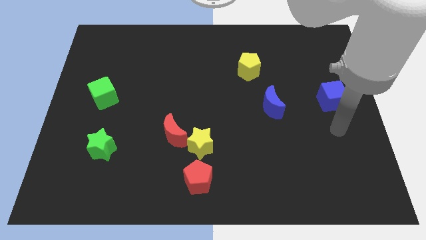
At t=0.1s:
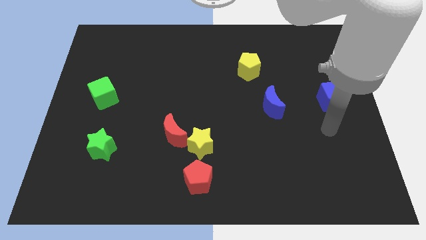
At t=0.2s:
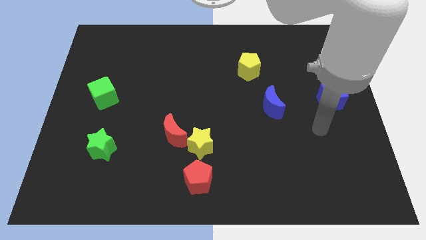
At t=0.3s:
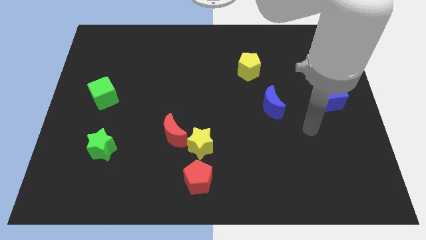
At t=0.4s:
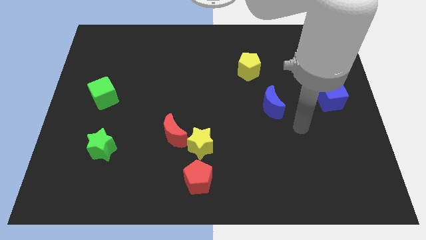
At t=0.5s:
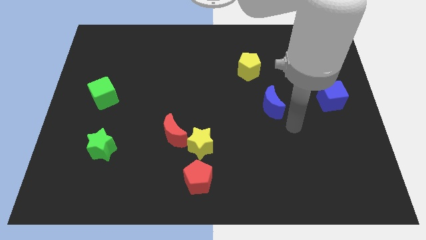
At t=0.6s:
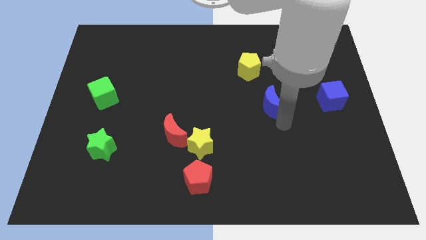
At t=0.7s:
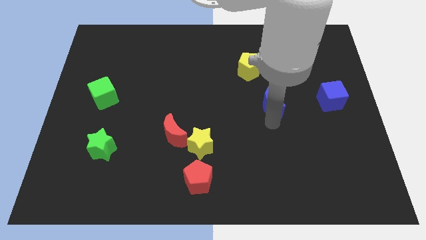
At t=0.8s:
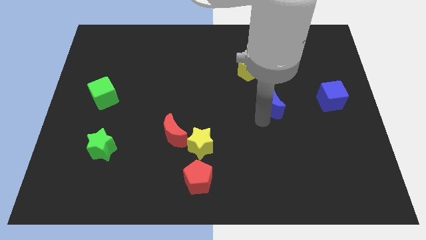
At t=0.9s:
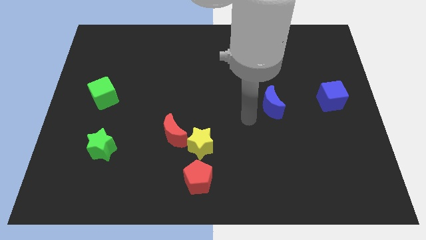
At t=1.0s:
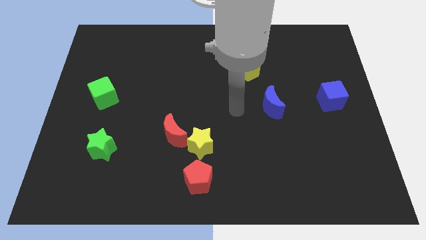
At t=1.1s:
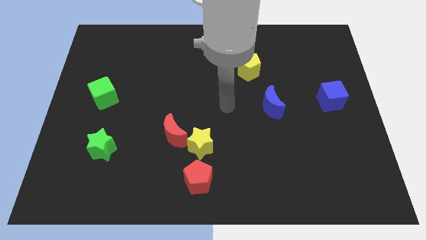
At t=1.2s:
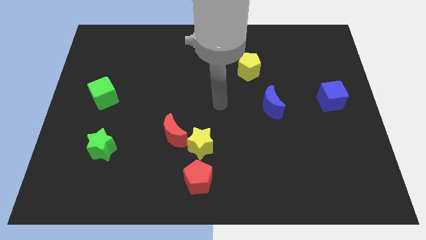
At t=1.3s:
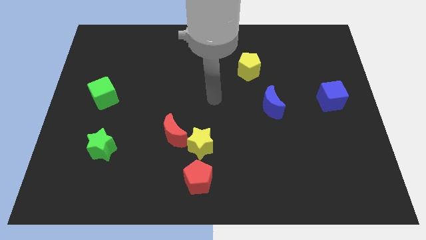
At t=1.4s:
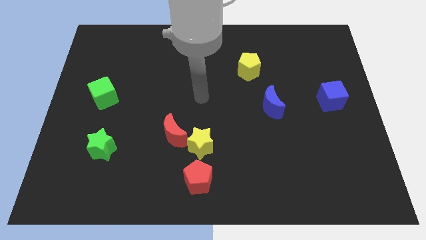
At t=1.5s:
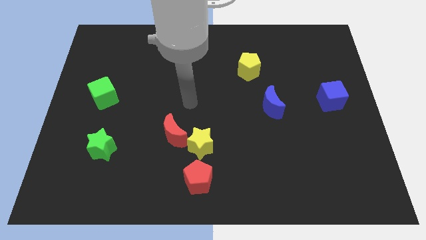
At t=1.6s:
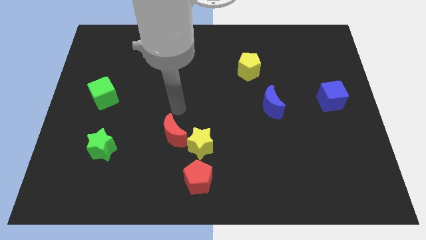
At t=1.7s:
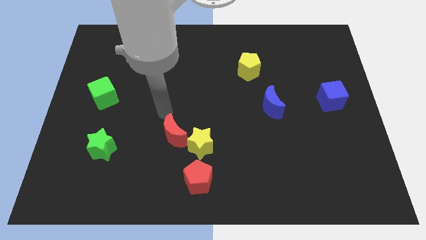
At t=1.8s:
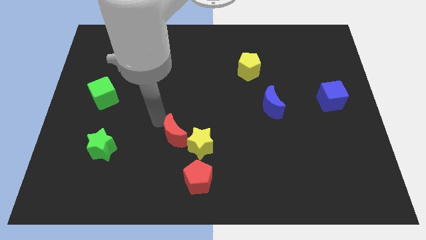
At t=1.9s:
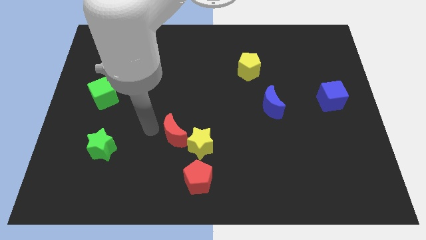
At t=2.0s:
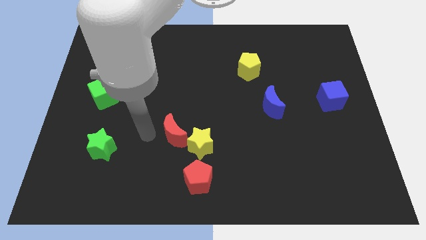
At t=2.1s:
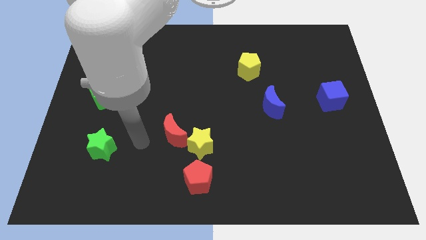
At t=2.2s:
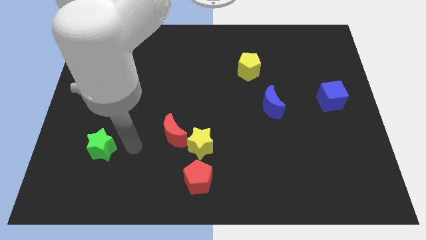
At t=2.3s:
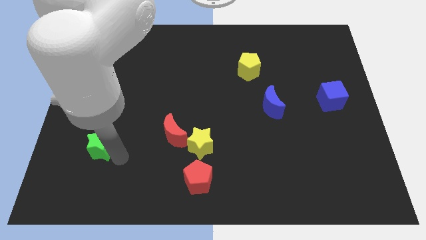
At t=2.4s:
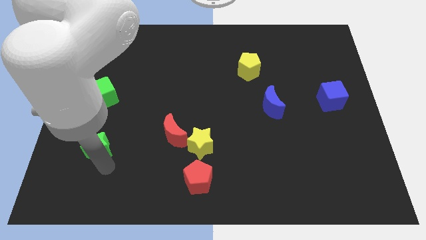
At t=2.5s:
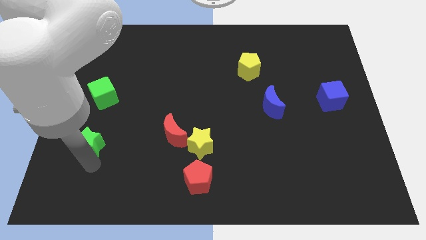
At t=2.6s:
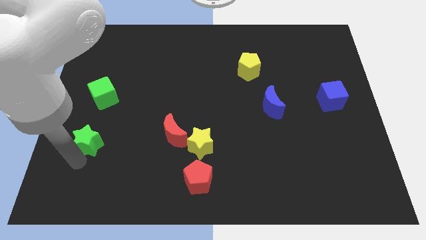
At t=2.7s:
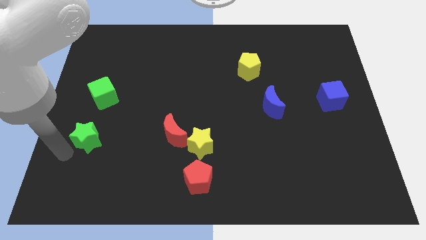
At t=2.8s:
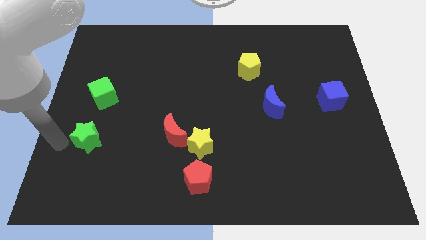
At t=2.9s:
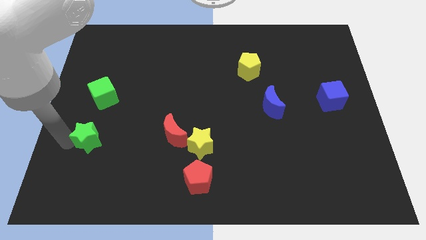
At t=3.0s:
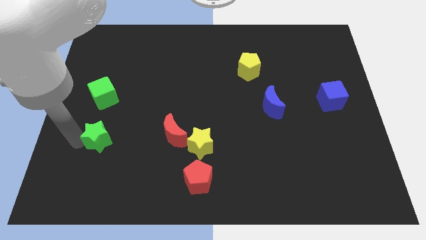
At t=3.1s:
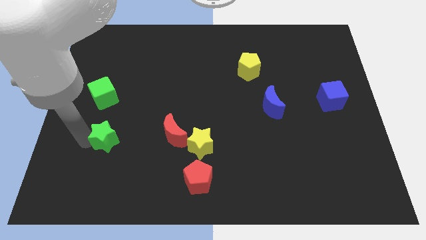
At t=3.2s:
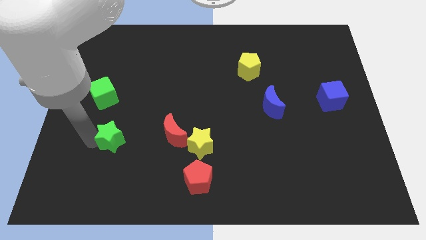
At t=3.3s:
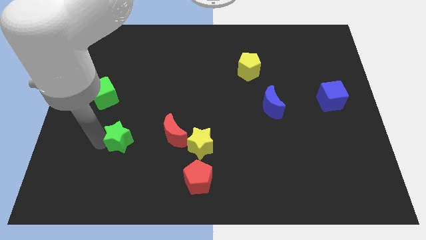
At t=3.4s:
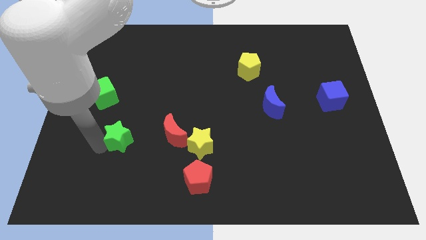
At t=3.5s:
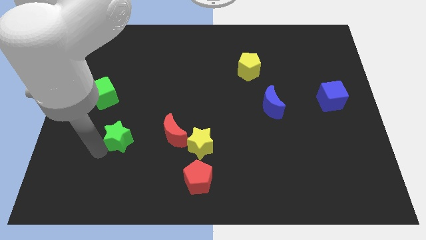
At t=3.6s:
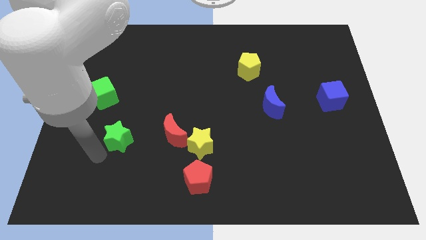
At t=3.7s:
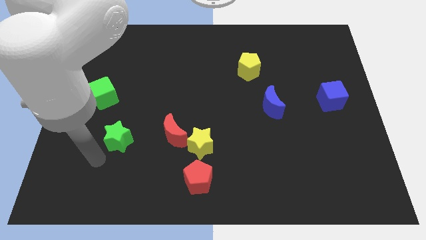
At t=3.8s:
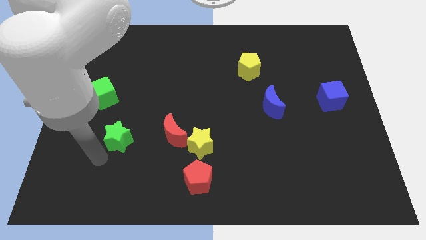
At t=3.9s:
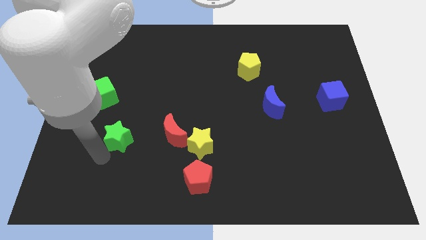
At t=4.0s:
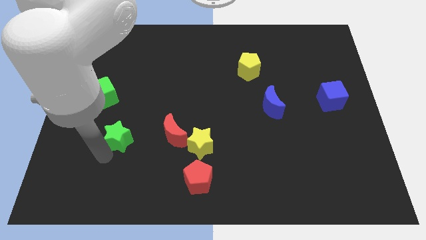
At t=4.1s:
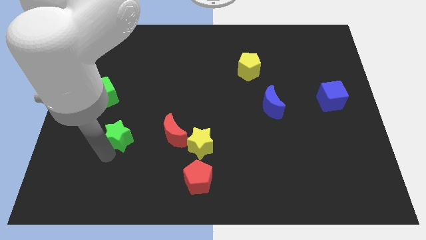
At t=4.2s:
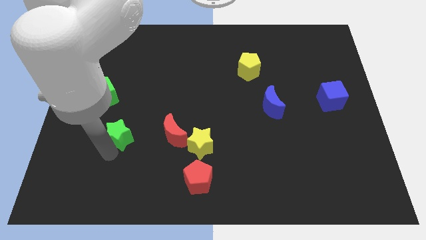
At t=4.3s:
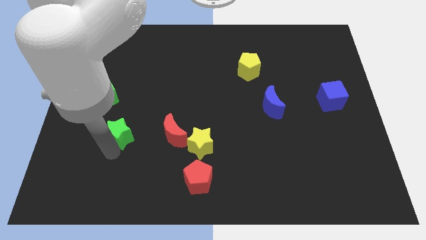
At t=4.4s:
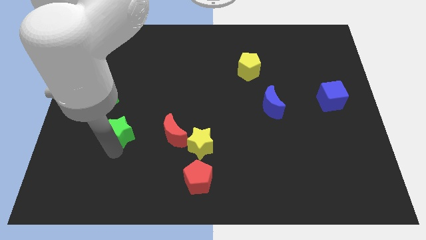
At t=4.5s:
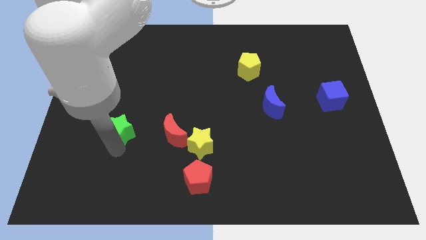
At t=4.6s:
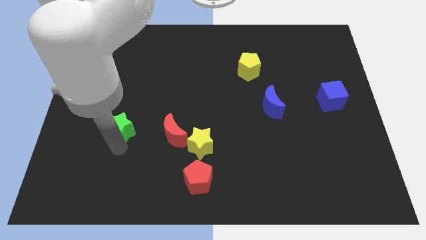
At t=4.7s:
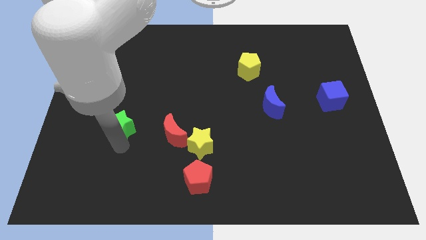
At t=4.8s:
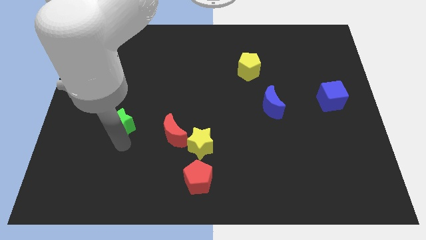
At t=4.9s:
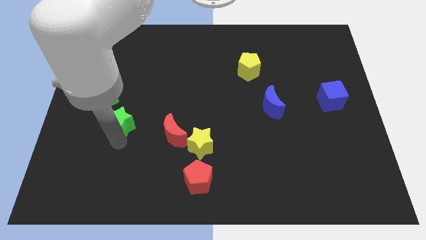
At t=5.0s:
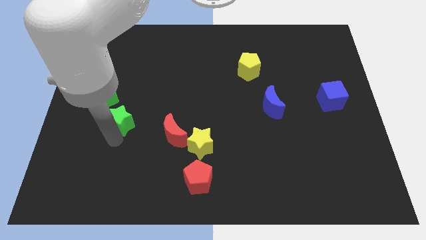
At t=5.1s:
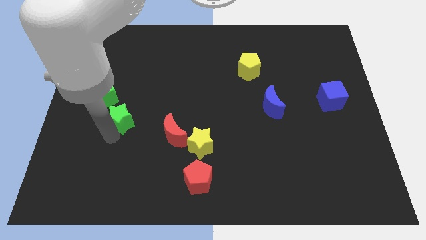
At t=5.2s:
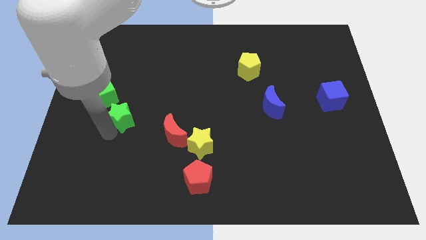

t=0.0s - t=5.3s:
slightly slide the green star diagonally upwards and right

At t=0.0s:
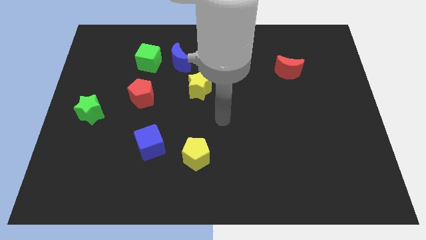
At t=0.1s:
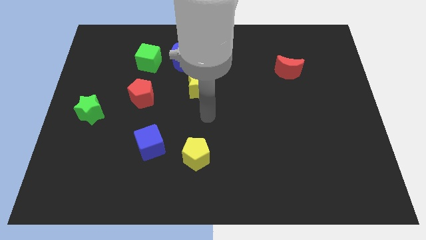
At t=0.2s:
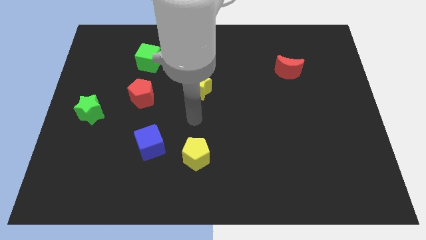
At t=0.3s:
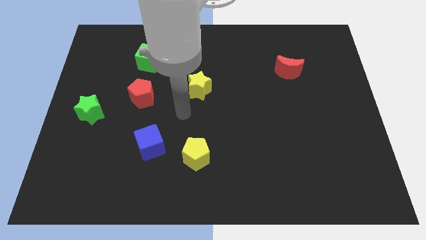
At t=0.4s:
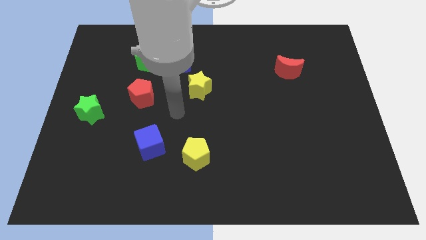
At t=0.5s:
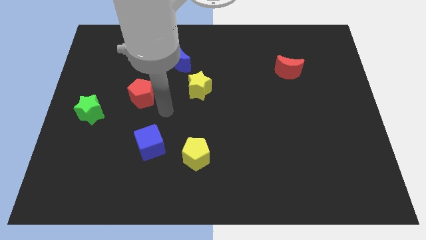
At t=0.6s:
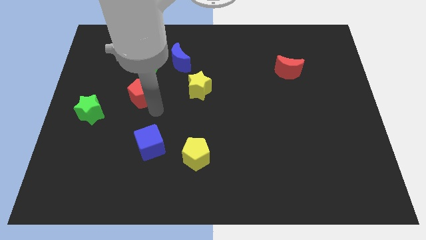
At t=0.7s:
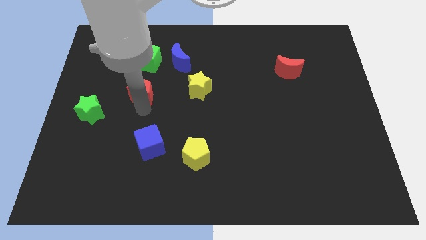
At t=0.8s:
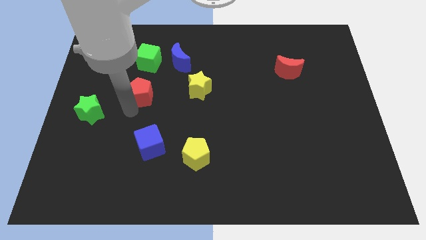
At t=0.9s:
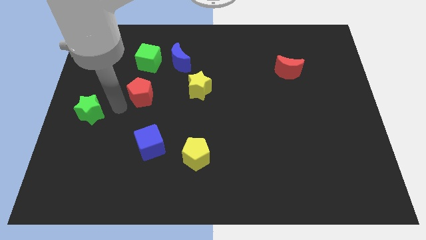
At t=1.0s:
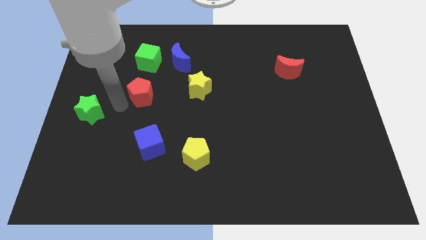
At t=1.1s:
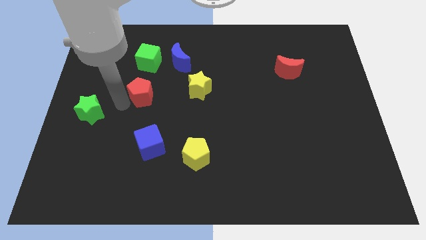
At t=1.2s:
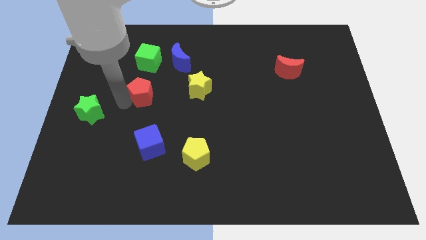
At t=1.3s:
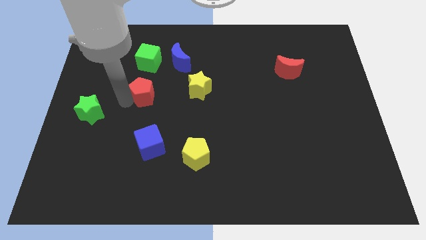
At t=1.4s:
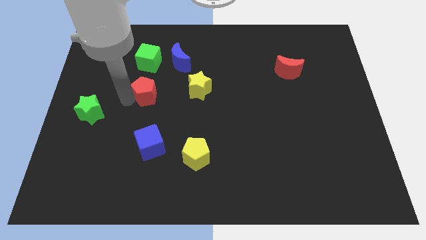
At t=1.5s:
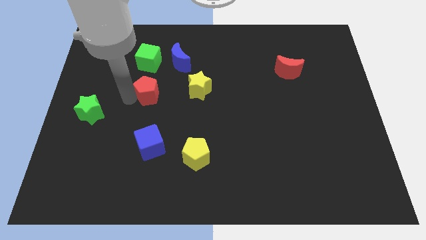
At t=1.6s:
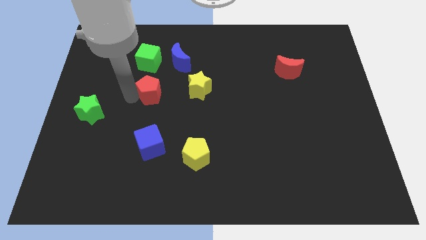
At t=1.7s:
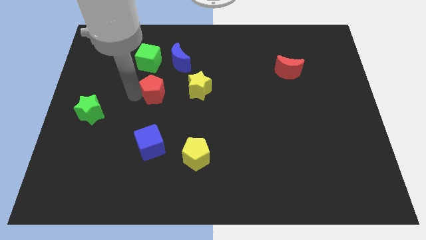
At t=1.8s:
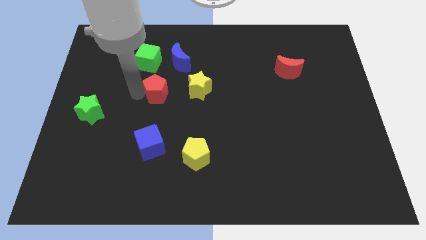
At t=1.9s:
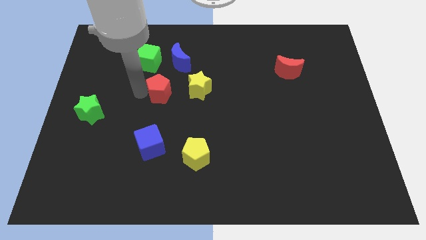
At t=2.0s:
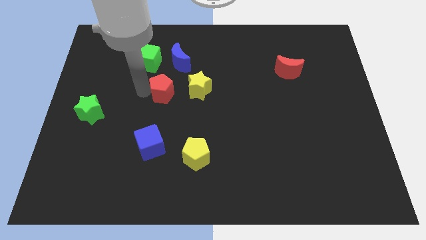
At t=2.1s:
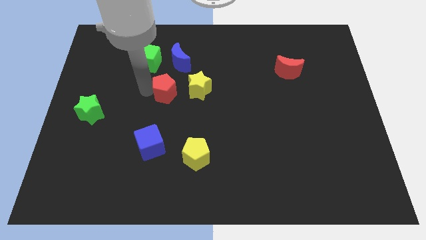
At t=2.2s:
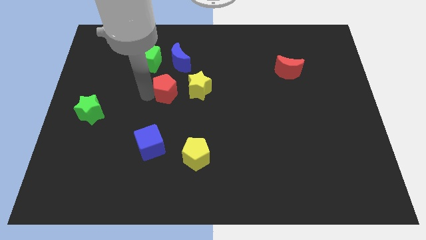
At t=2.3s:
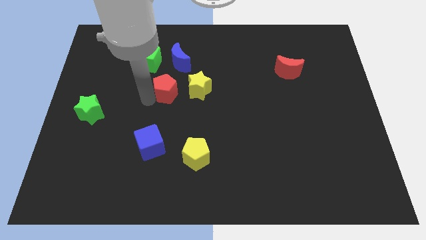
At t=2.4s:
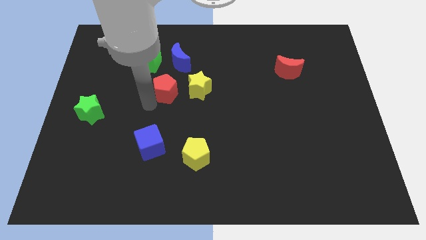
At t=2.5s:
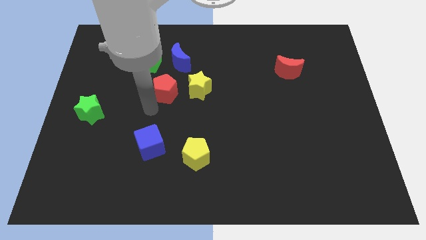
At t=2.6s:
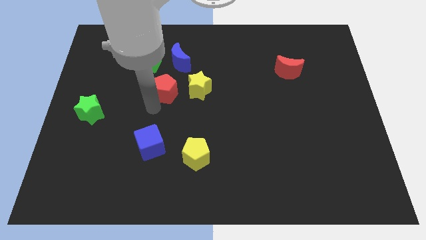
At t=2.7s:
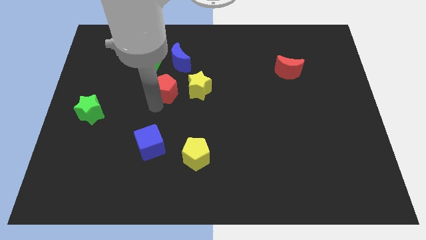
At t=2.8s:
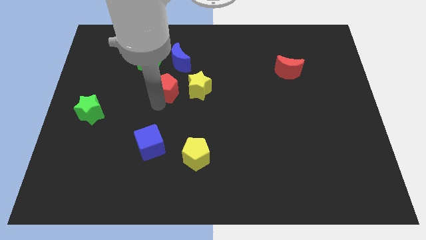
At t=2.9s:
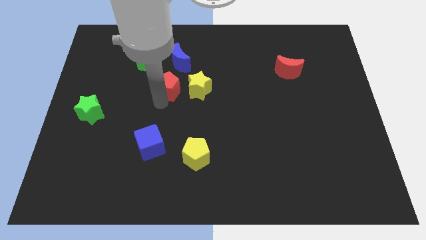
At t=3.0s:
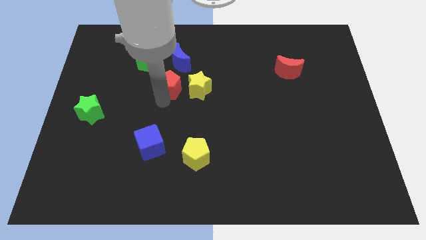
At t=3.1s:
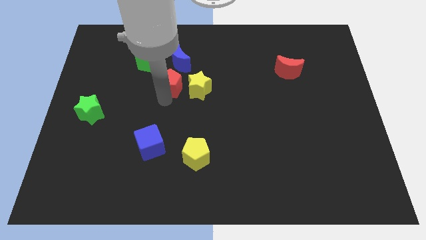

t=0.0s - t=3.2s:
slightly move the red pentagon diagonally up and to the right
